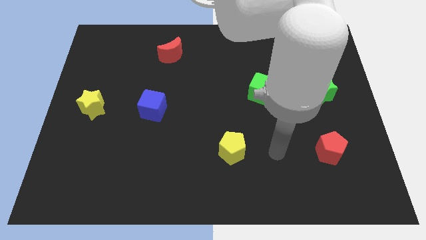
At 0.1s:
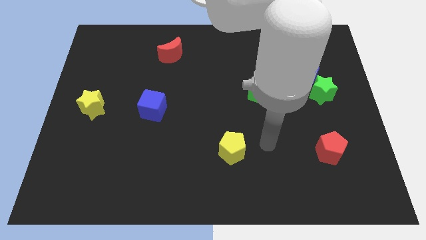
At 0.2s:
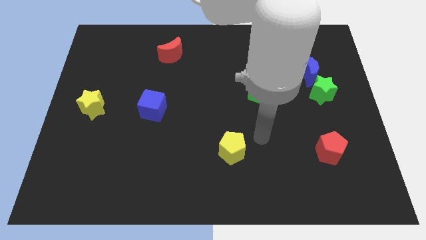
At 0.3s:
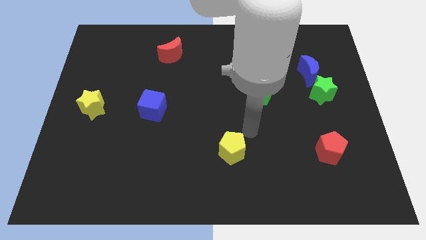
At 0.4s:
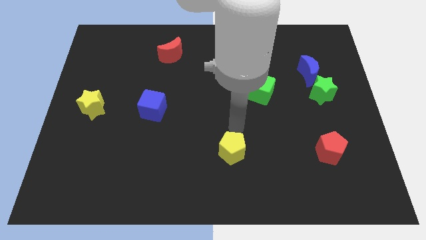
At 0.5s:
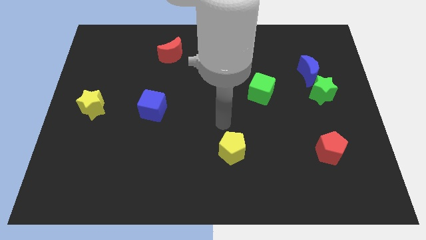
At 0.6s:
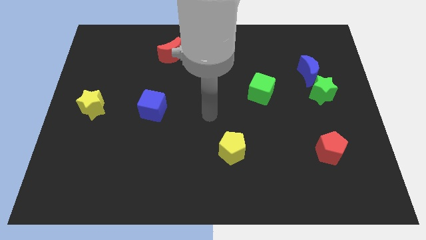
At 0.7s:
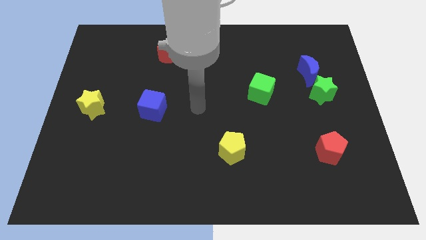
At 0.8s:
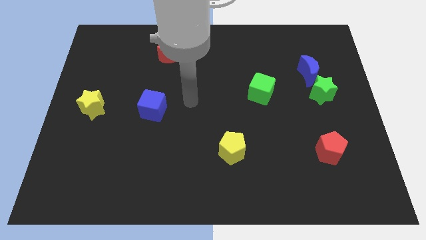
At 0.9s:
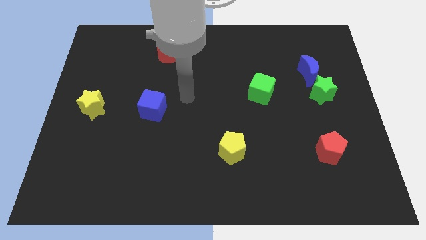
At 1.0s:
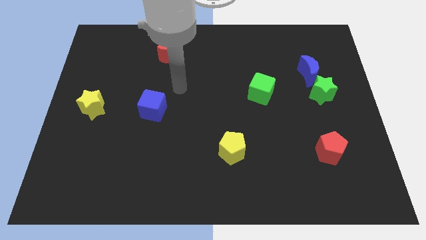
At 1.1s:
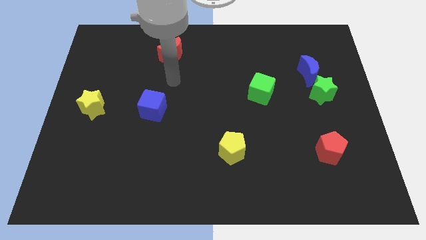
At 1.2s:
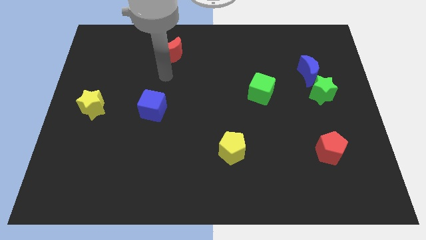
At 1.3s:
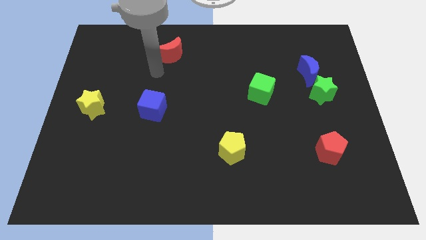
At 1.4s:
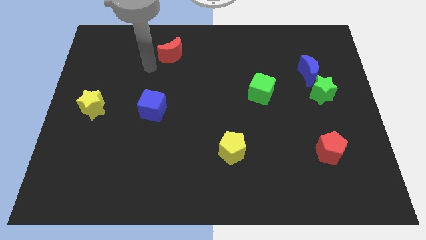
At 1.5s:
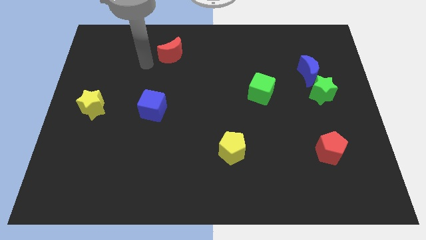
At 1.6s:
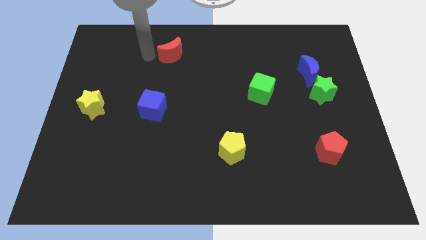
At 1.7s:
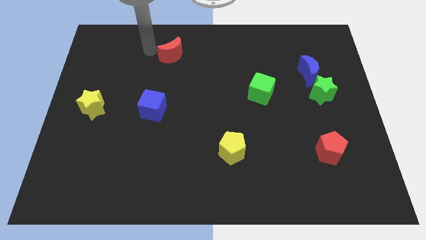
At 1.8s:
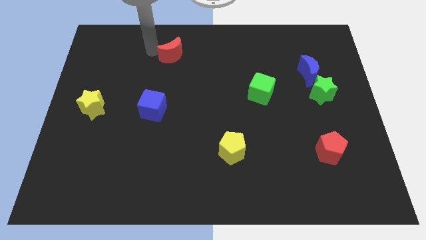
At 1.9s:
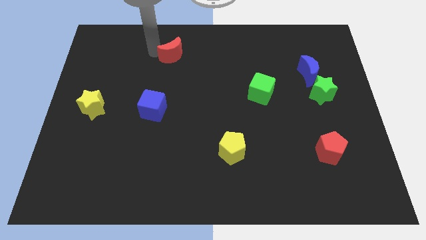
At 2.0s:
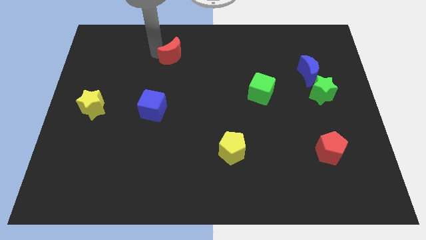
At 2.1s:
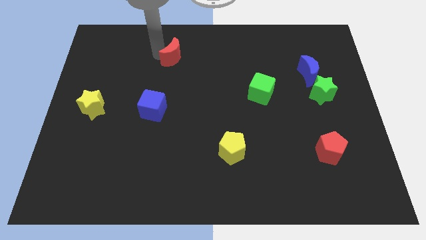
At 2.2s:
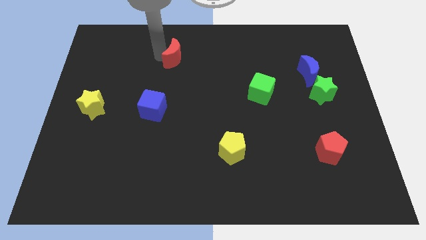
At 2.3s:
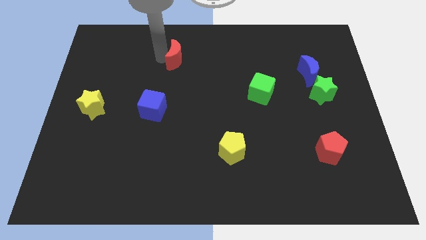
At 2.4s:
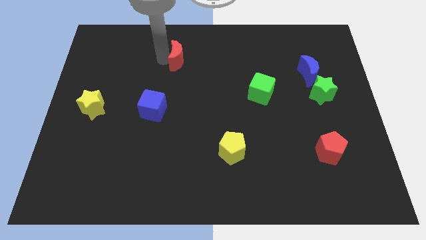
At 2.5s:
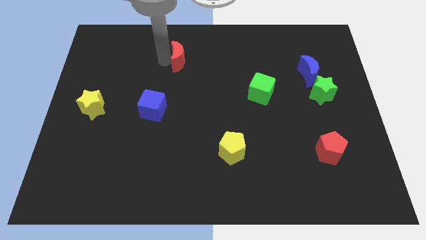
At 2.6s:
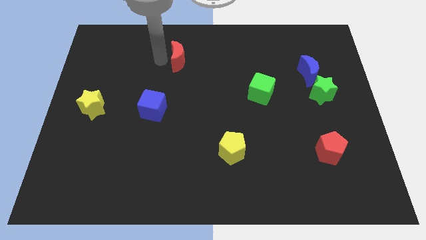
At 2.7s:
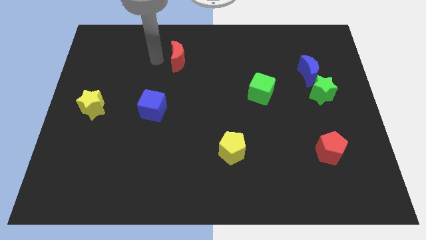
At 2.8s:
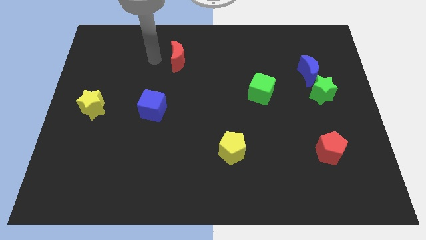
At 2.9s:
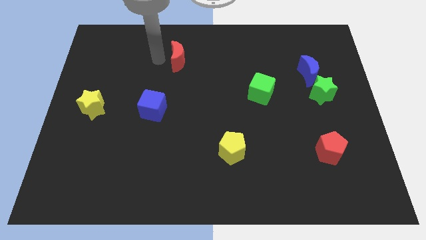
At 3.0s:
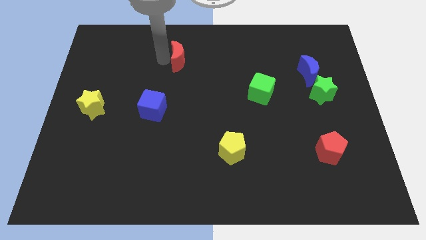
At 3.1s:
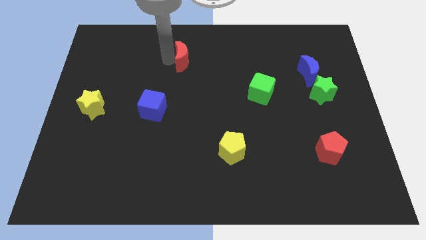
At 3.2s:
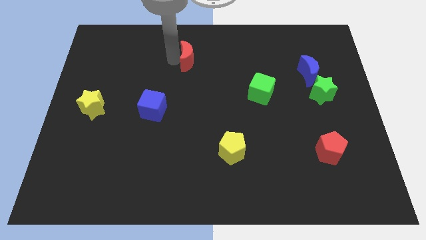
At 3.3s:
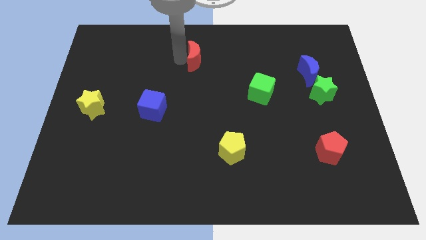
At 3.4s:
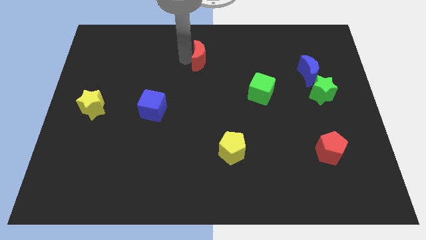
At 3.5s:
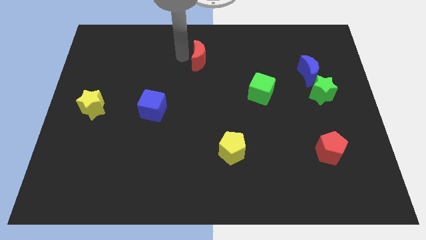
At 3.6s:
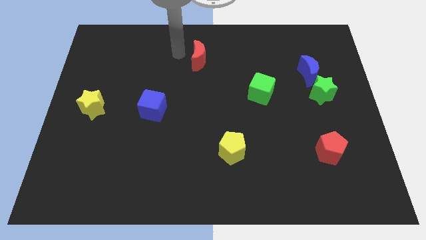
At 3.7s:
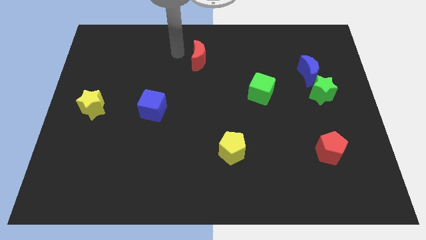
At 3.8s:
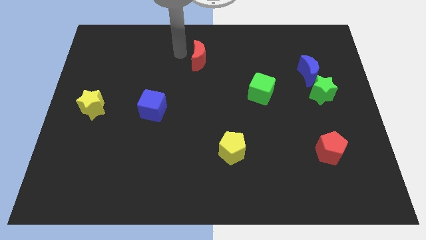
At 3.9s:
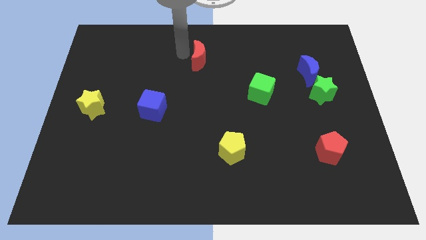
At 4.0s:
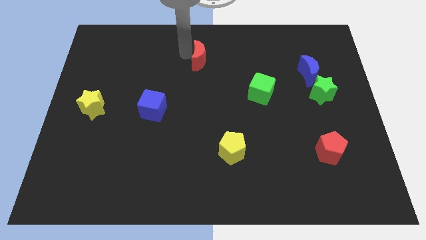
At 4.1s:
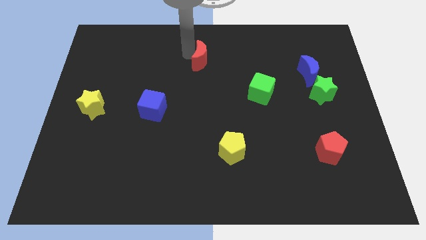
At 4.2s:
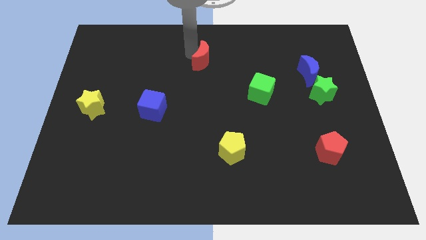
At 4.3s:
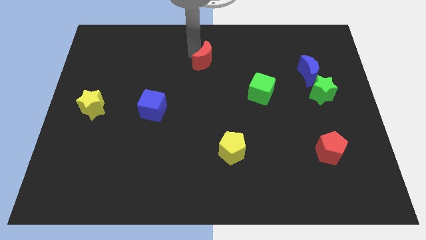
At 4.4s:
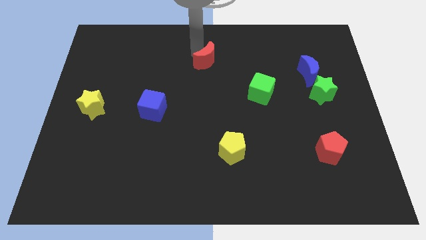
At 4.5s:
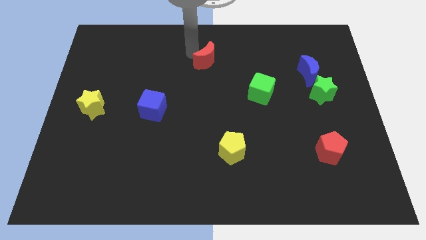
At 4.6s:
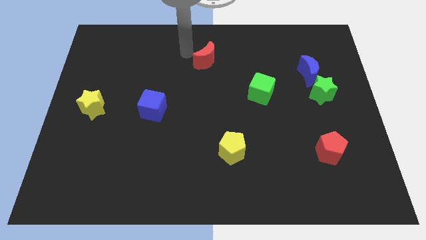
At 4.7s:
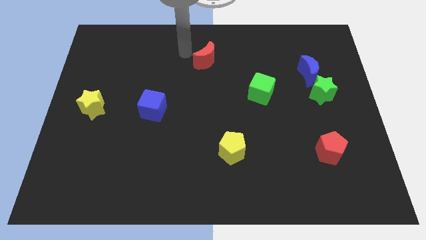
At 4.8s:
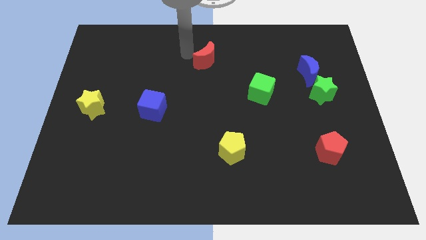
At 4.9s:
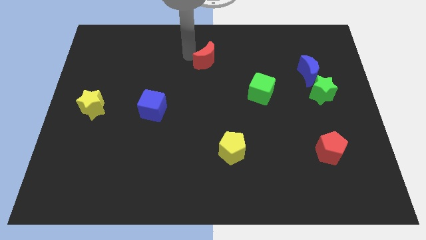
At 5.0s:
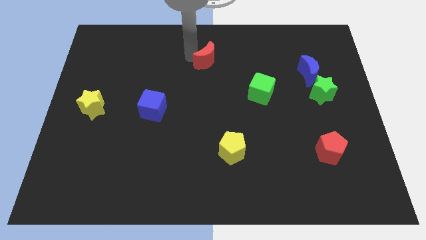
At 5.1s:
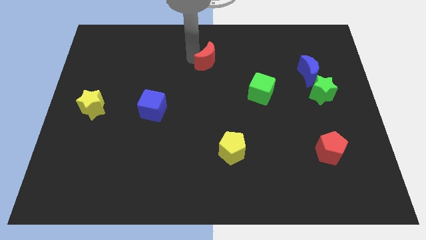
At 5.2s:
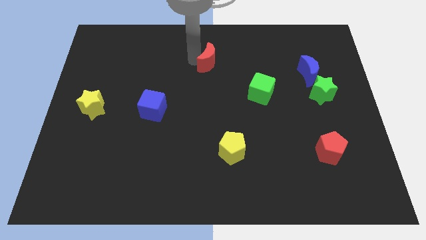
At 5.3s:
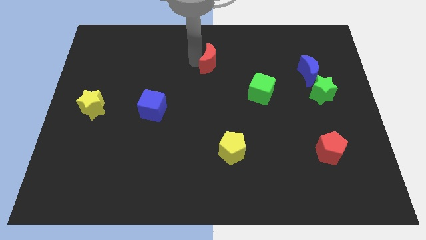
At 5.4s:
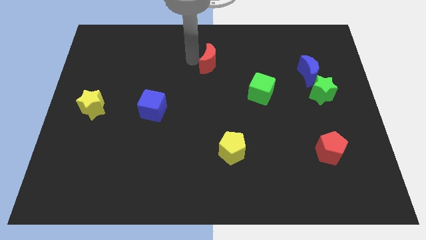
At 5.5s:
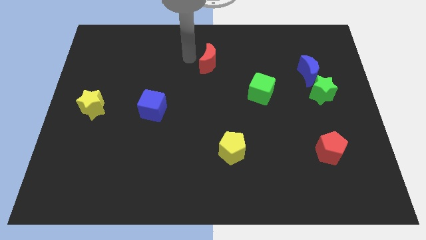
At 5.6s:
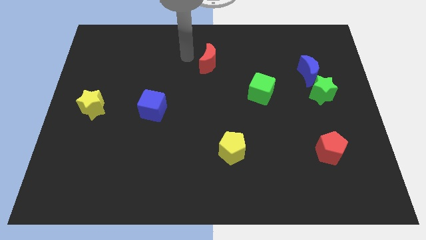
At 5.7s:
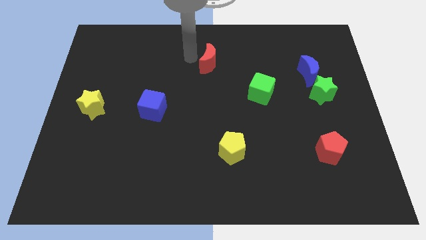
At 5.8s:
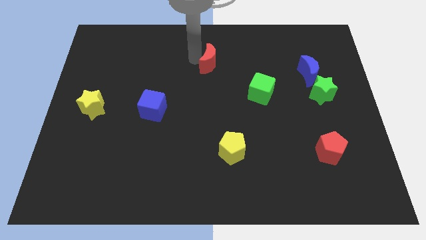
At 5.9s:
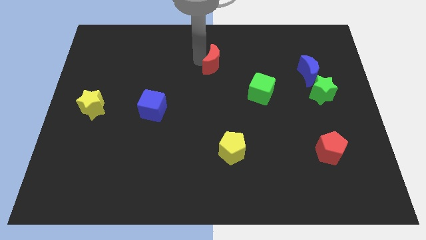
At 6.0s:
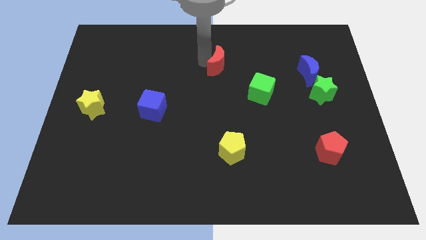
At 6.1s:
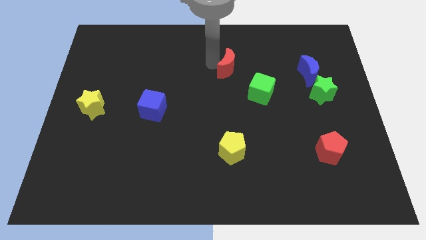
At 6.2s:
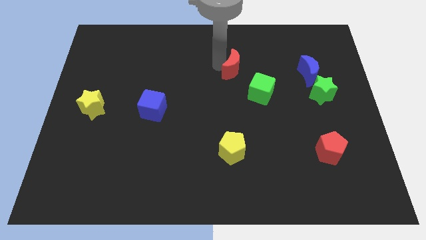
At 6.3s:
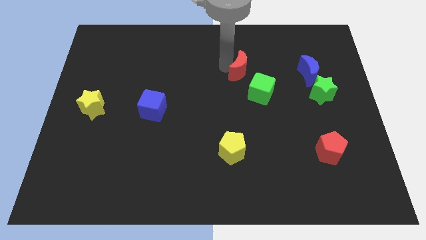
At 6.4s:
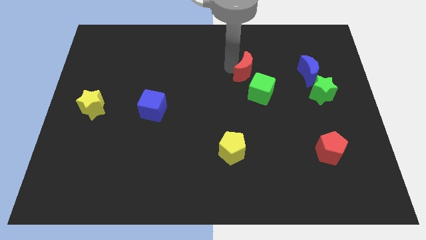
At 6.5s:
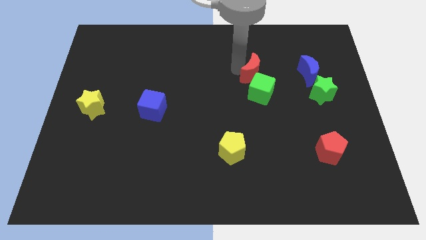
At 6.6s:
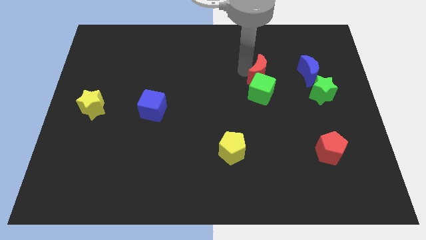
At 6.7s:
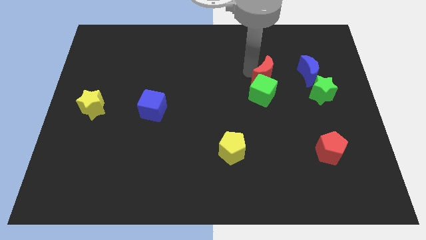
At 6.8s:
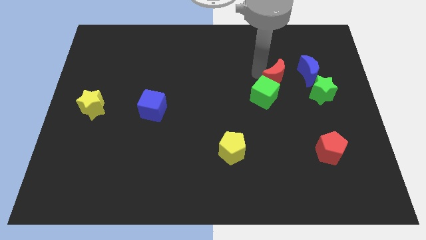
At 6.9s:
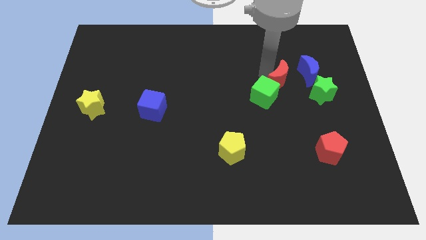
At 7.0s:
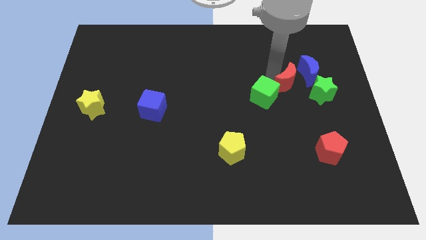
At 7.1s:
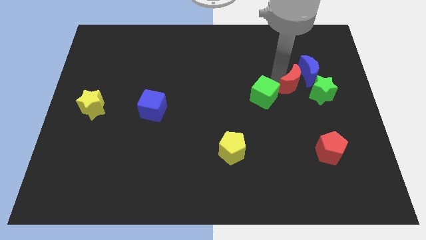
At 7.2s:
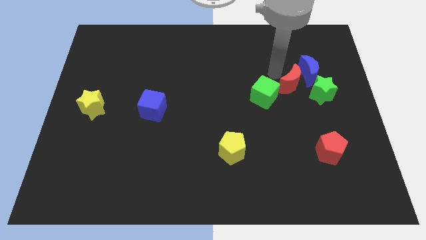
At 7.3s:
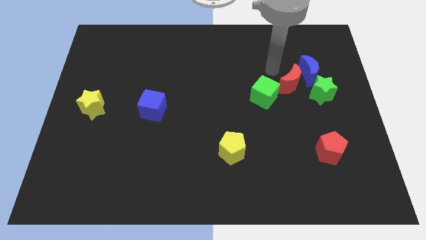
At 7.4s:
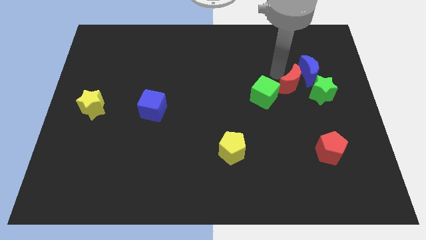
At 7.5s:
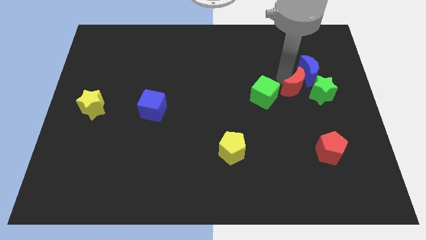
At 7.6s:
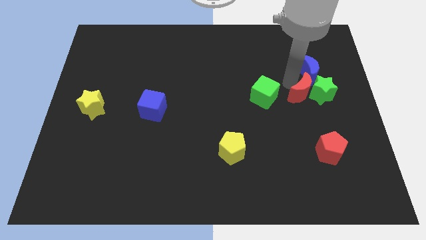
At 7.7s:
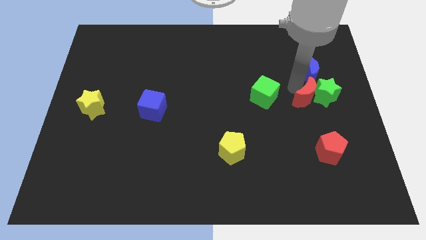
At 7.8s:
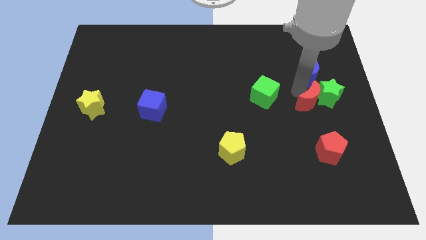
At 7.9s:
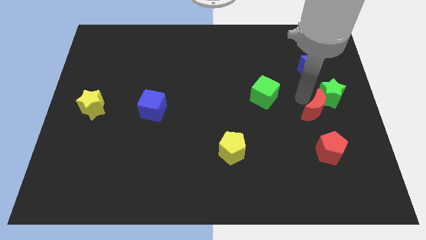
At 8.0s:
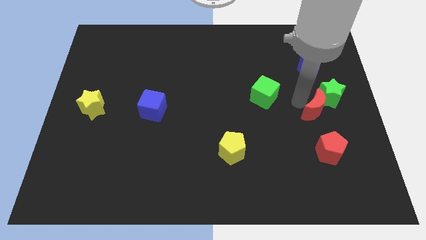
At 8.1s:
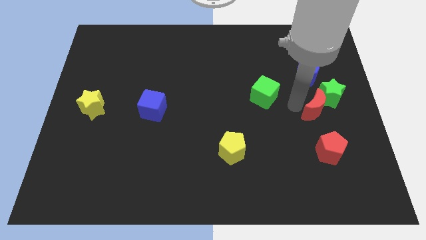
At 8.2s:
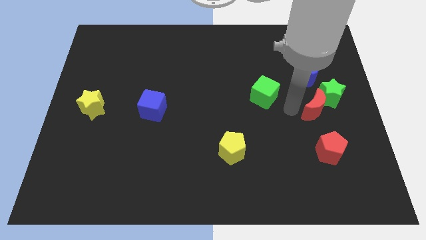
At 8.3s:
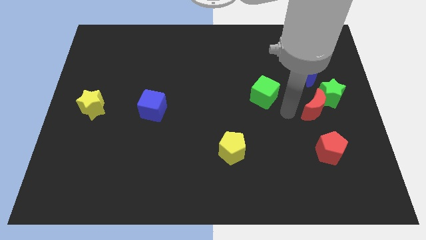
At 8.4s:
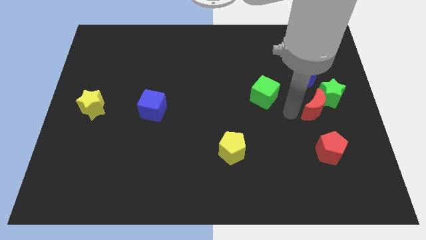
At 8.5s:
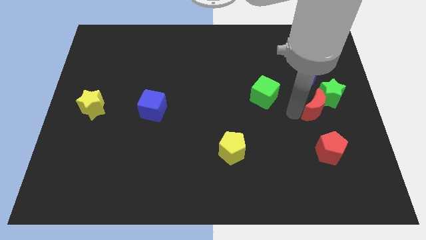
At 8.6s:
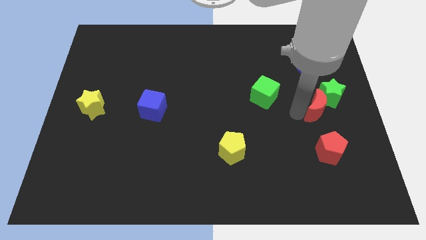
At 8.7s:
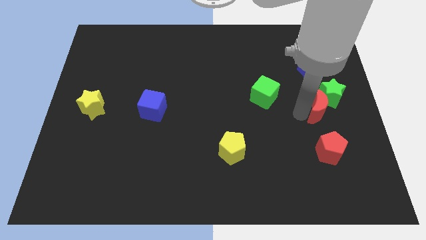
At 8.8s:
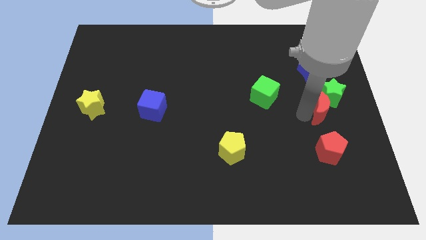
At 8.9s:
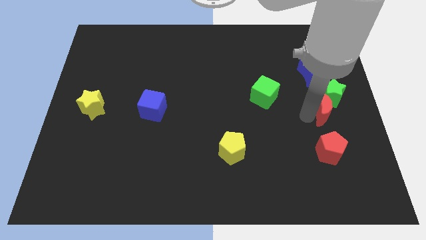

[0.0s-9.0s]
move the red moon to the right side of the board
